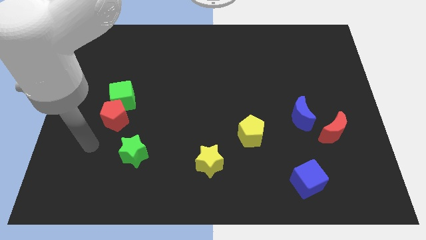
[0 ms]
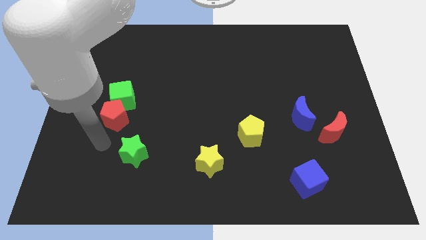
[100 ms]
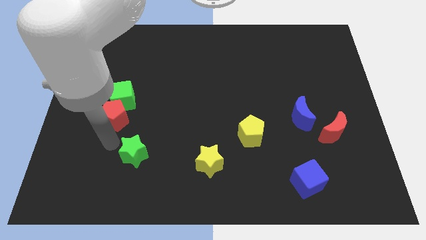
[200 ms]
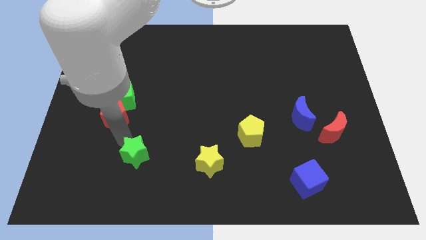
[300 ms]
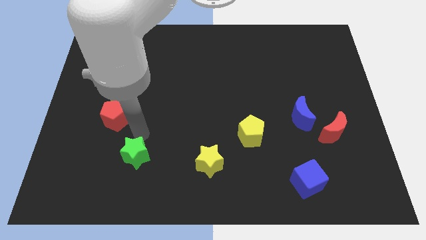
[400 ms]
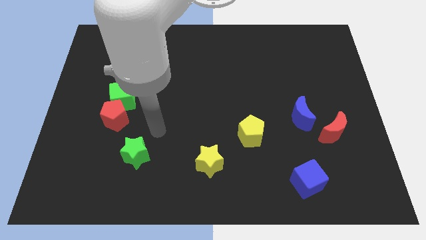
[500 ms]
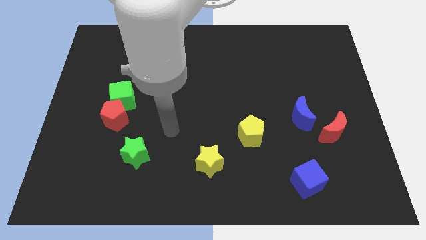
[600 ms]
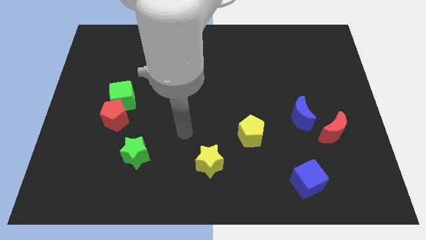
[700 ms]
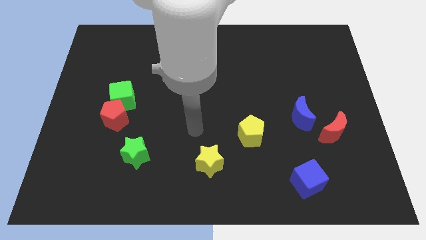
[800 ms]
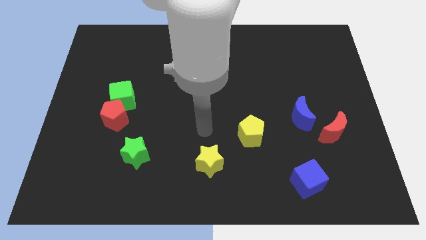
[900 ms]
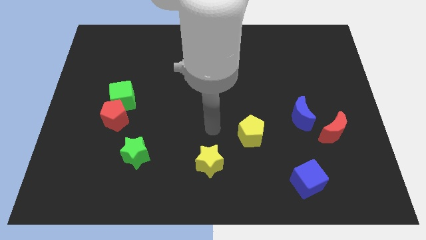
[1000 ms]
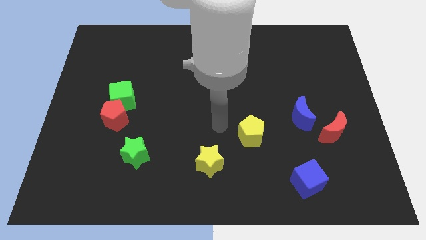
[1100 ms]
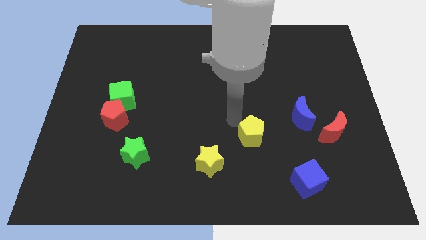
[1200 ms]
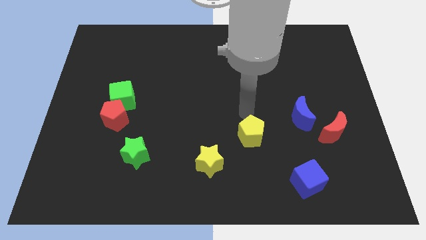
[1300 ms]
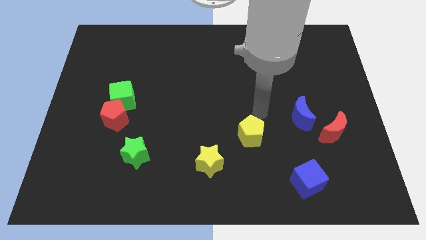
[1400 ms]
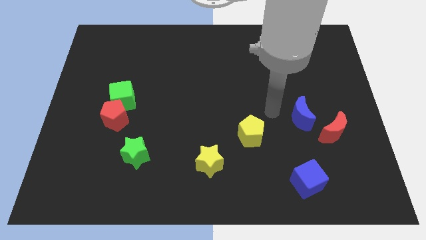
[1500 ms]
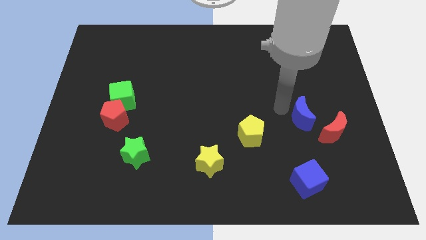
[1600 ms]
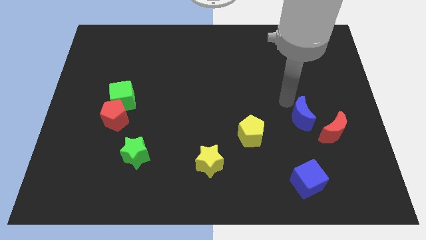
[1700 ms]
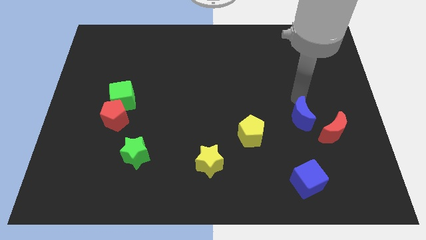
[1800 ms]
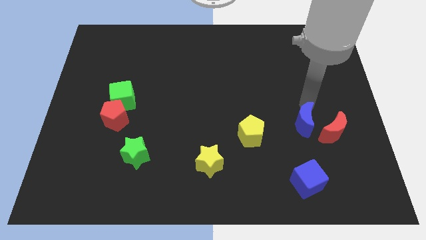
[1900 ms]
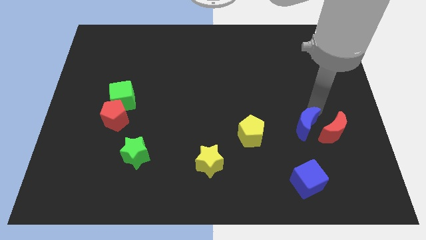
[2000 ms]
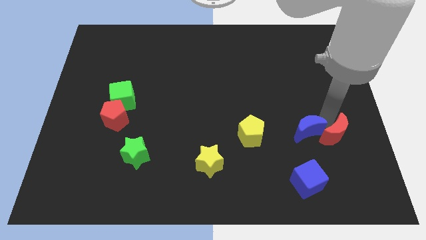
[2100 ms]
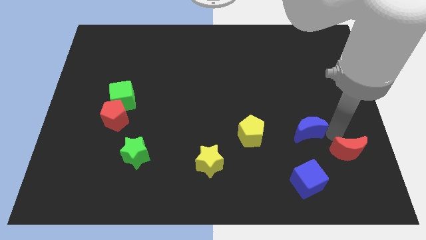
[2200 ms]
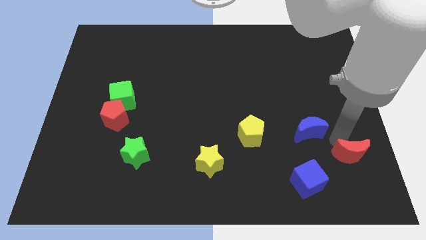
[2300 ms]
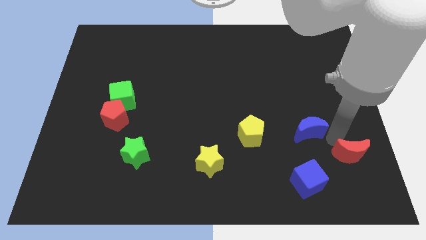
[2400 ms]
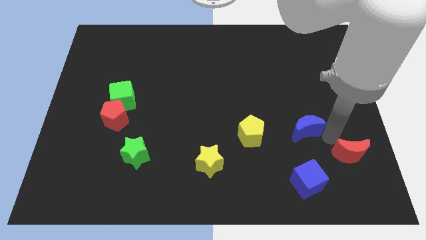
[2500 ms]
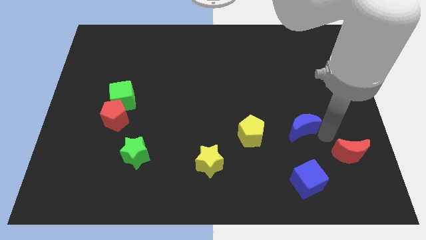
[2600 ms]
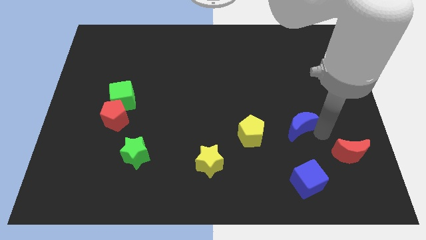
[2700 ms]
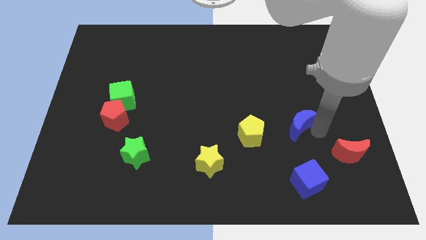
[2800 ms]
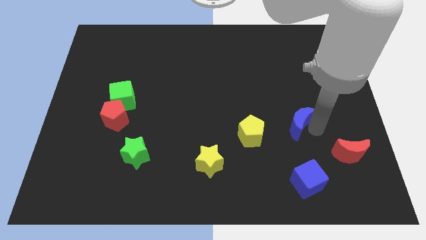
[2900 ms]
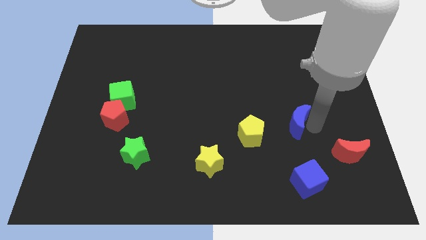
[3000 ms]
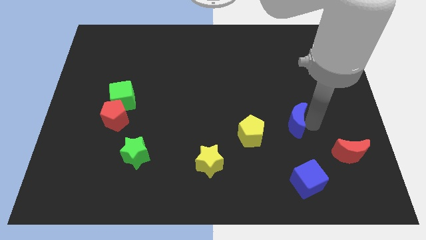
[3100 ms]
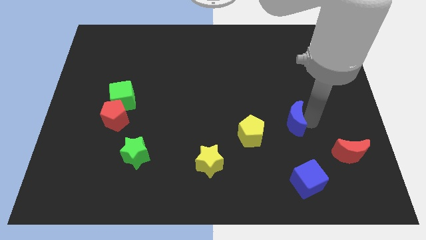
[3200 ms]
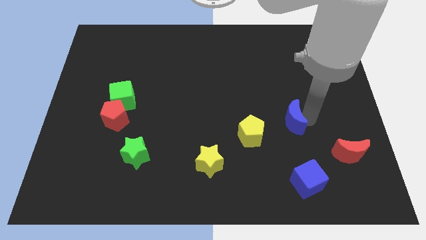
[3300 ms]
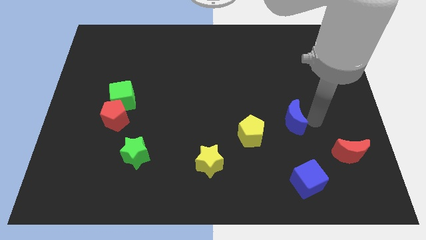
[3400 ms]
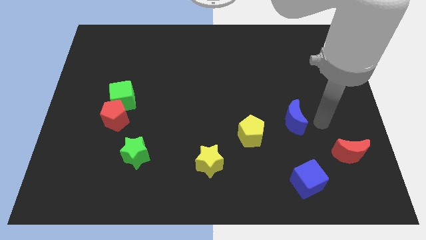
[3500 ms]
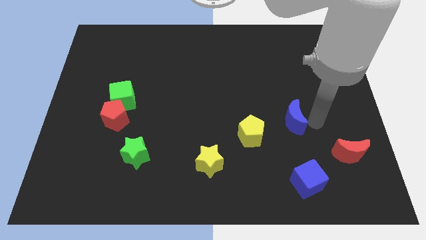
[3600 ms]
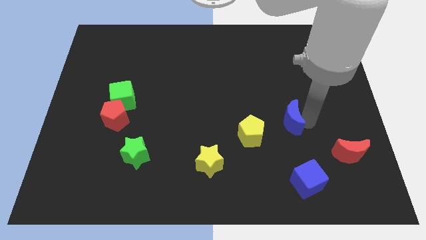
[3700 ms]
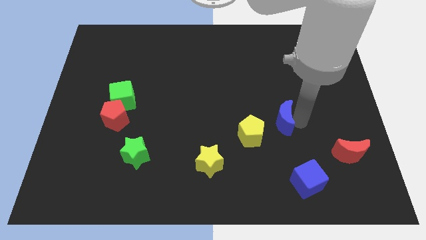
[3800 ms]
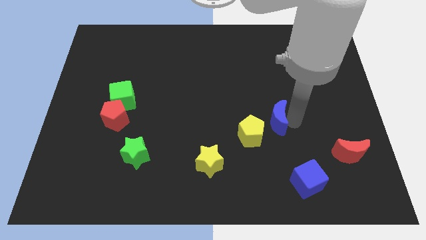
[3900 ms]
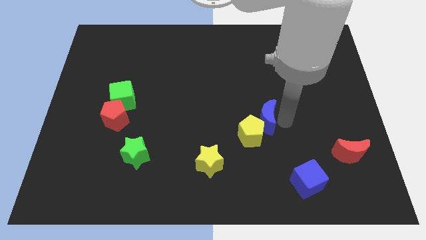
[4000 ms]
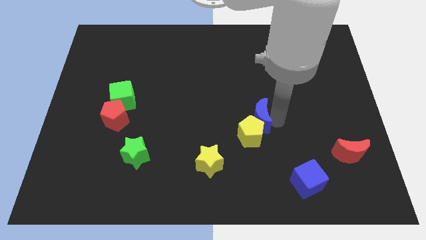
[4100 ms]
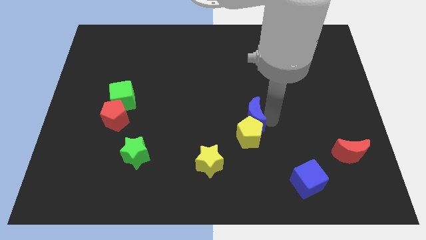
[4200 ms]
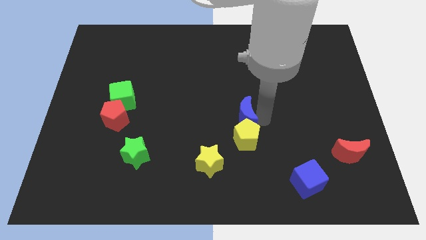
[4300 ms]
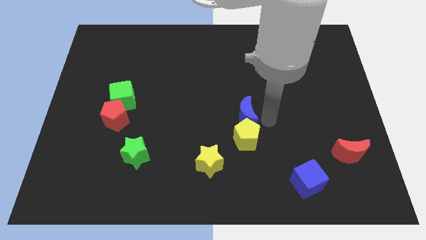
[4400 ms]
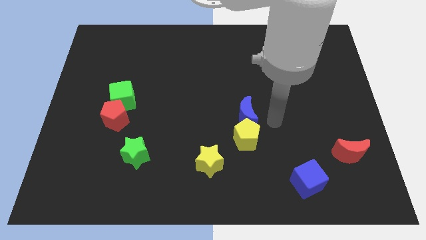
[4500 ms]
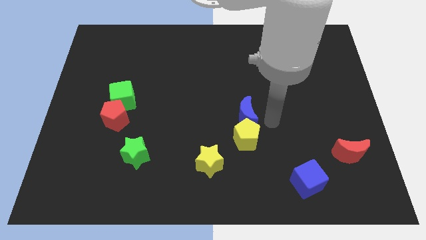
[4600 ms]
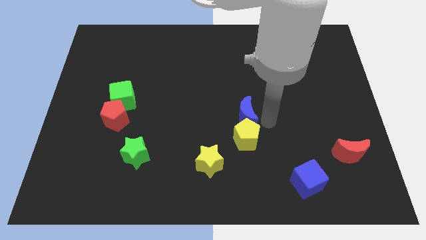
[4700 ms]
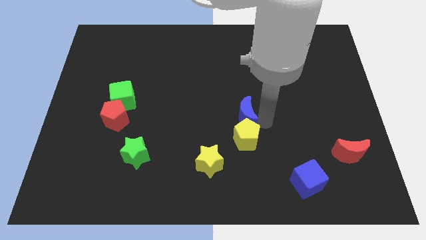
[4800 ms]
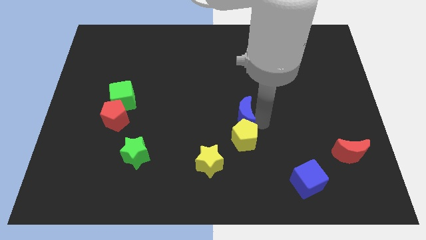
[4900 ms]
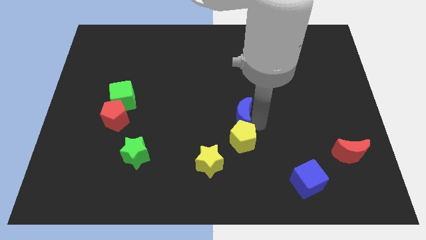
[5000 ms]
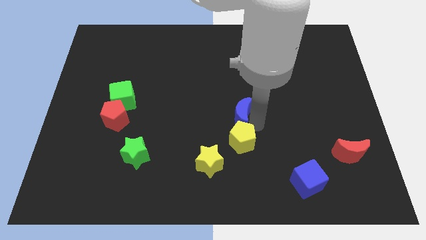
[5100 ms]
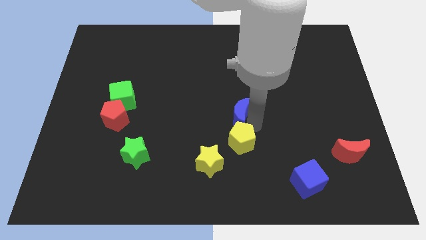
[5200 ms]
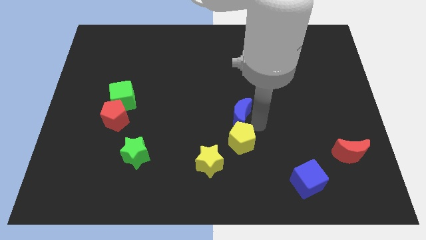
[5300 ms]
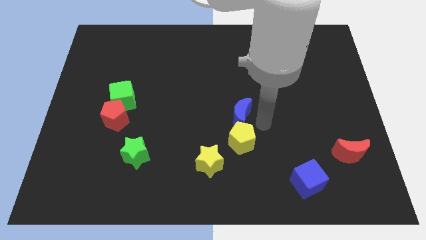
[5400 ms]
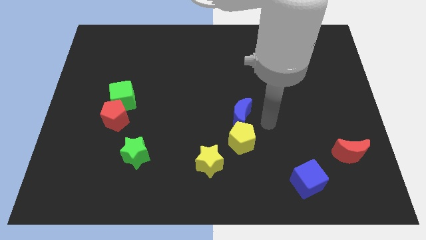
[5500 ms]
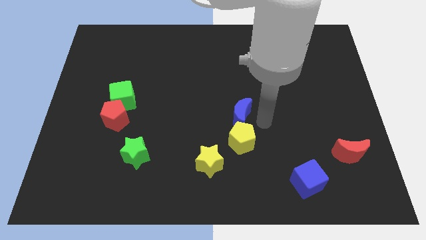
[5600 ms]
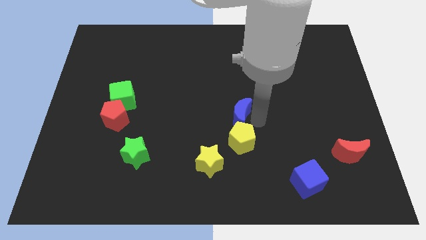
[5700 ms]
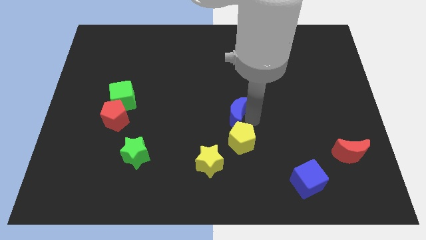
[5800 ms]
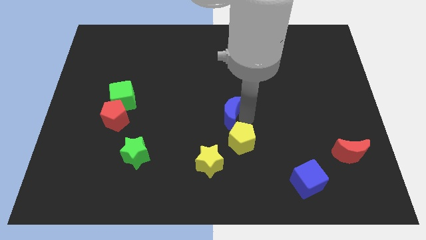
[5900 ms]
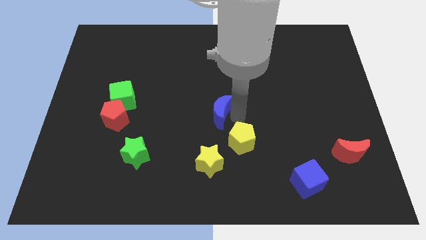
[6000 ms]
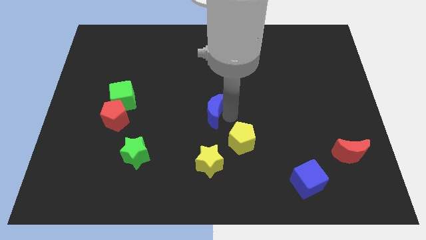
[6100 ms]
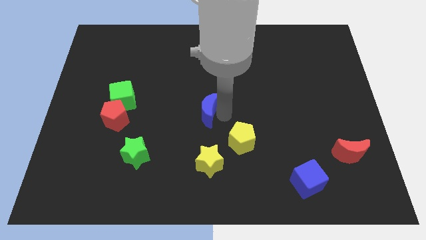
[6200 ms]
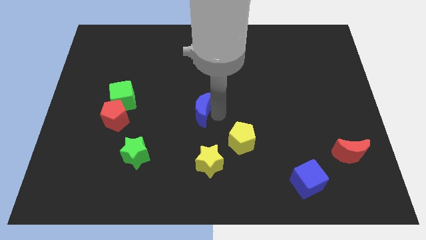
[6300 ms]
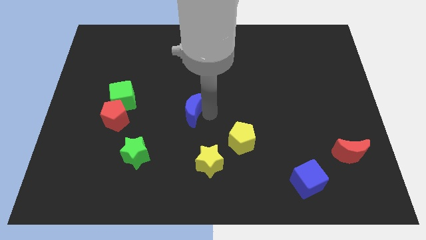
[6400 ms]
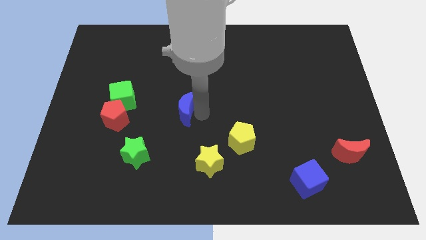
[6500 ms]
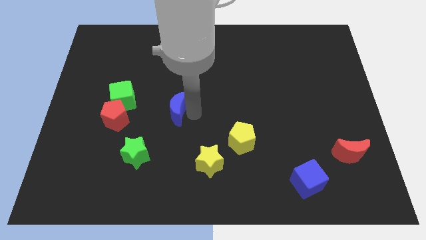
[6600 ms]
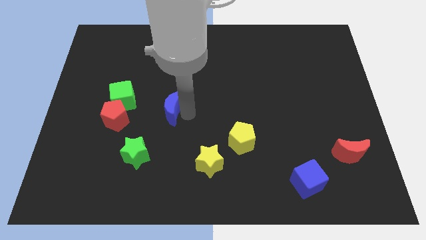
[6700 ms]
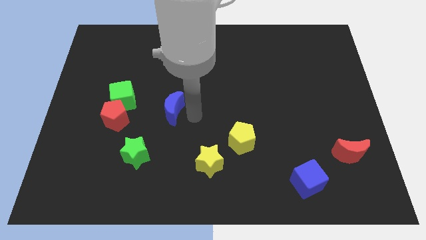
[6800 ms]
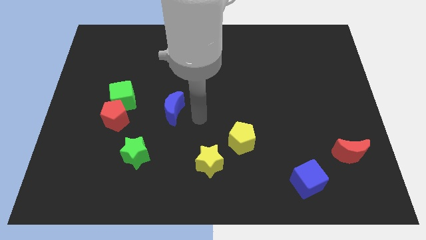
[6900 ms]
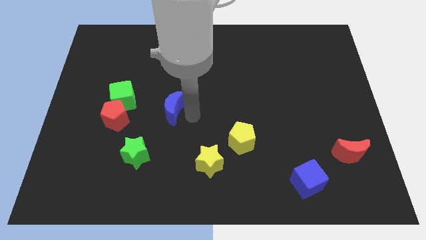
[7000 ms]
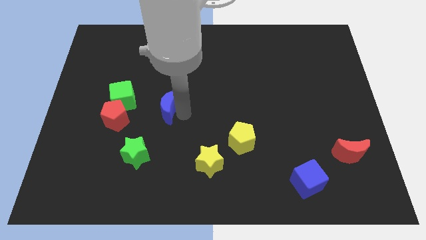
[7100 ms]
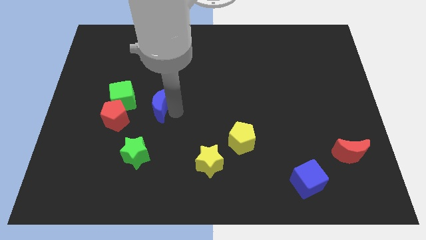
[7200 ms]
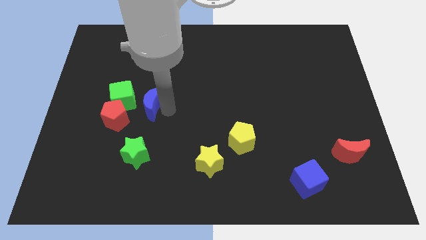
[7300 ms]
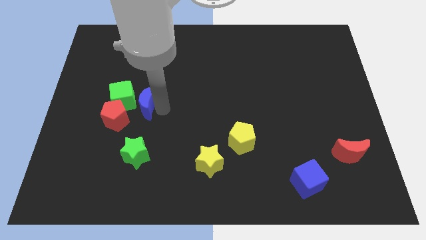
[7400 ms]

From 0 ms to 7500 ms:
push the blue moon towards the green cube
